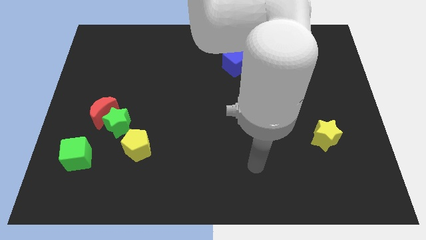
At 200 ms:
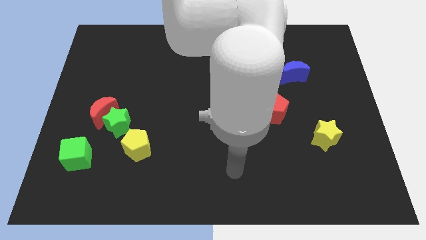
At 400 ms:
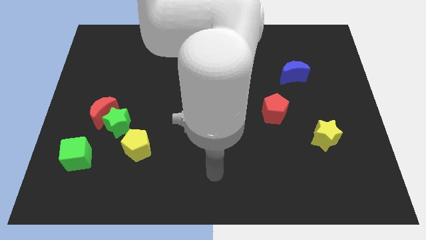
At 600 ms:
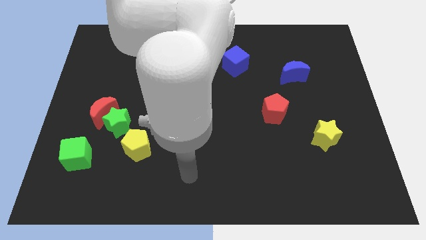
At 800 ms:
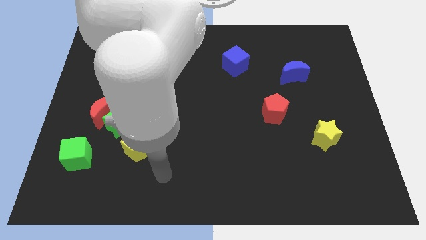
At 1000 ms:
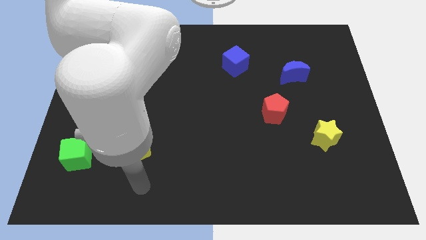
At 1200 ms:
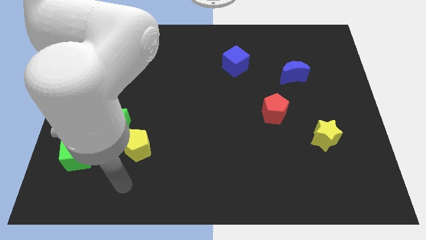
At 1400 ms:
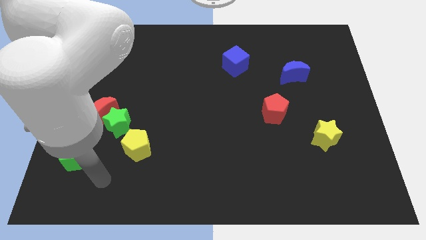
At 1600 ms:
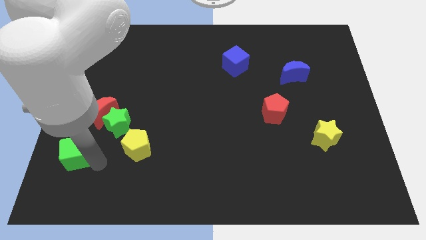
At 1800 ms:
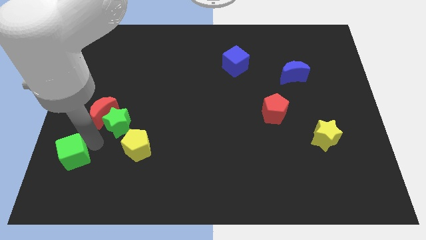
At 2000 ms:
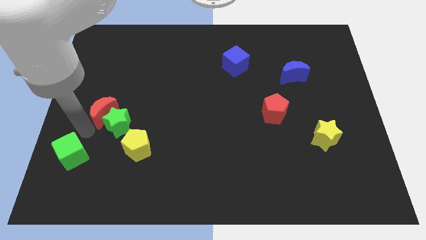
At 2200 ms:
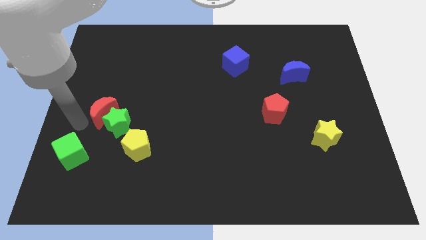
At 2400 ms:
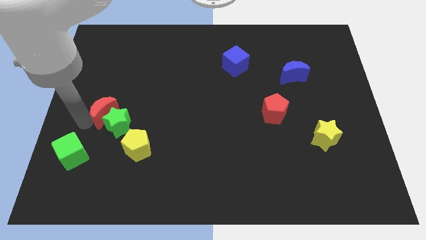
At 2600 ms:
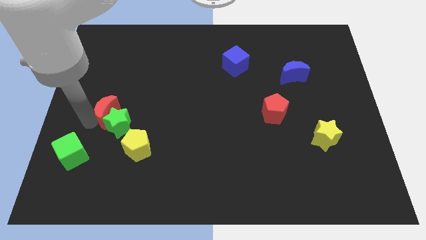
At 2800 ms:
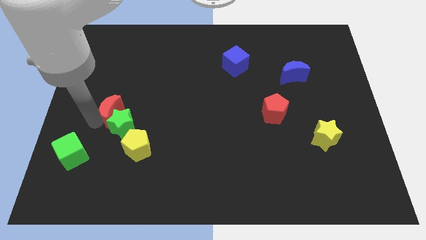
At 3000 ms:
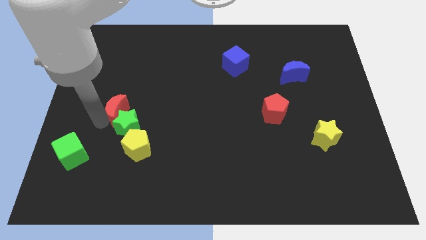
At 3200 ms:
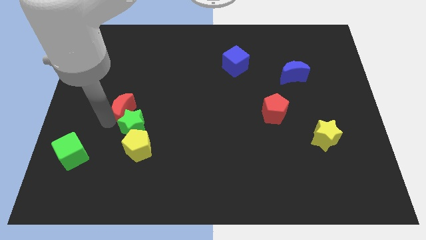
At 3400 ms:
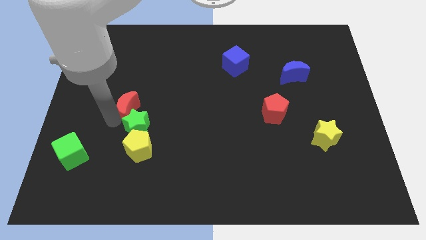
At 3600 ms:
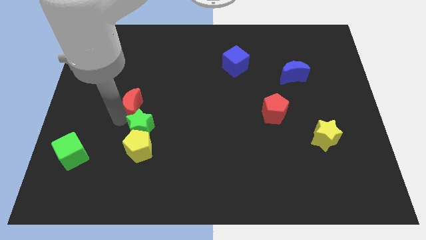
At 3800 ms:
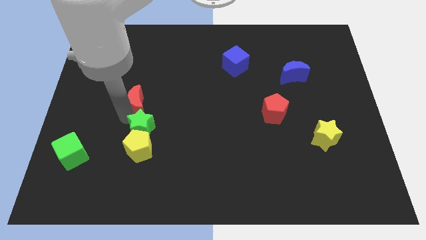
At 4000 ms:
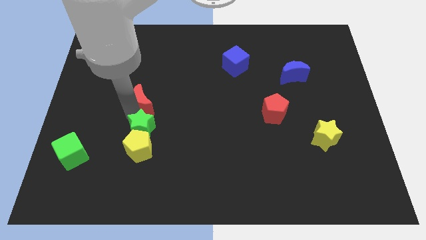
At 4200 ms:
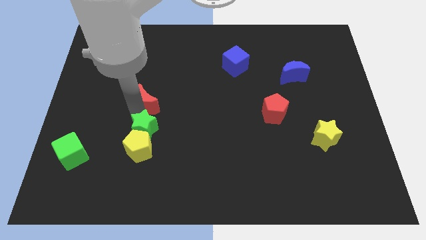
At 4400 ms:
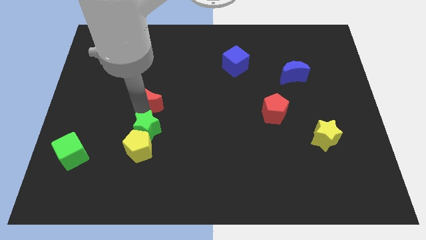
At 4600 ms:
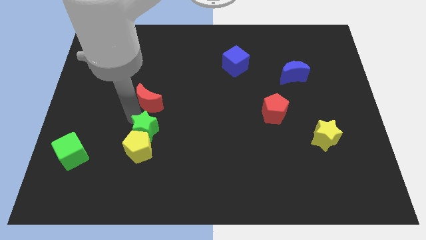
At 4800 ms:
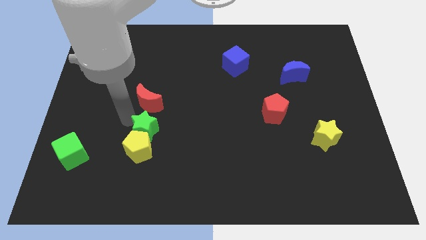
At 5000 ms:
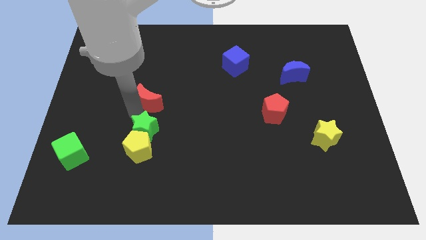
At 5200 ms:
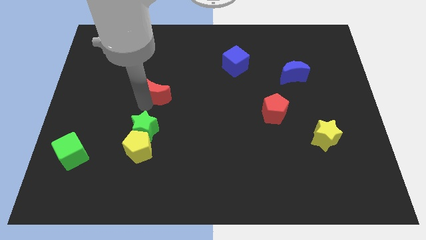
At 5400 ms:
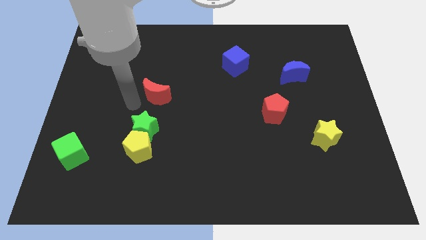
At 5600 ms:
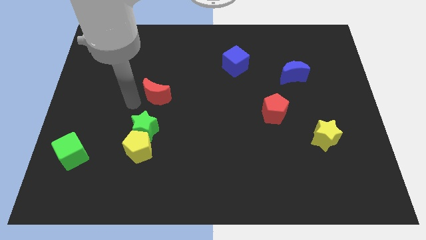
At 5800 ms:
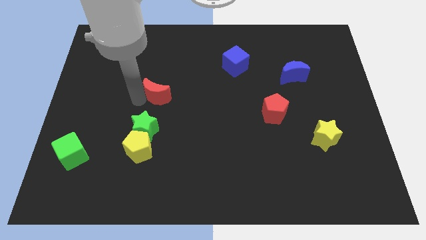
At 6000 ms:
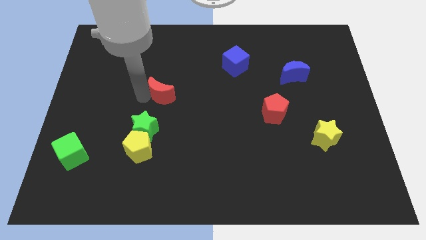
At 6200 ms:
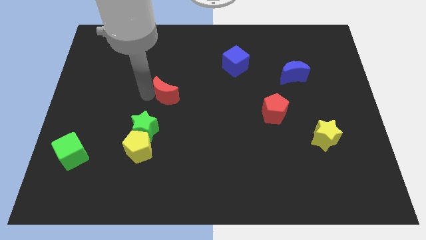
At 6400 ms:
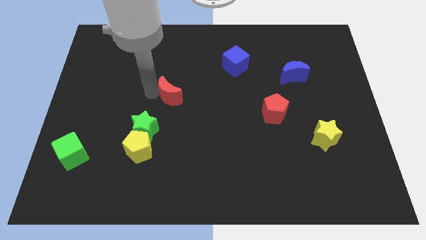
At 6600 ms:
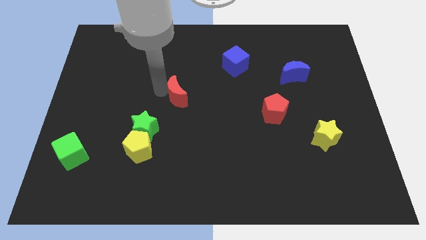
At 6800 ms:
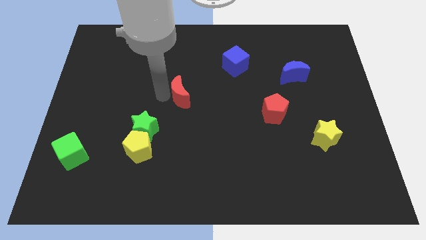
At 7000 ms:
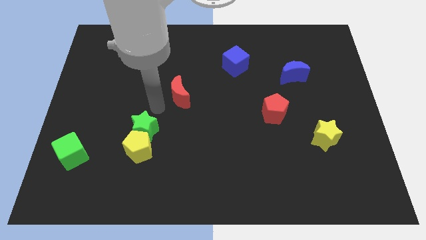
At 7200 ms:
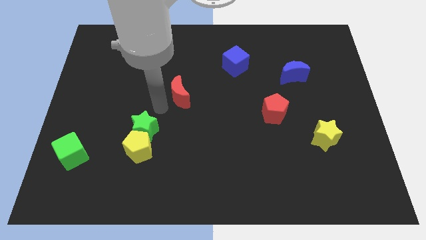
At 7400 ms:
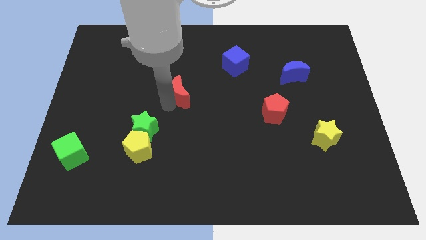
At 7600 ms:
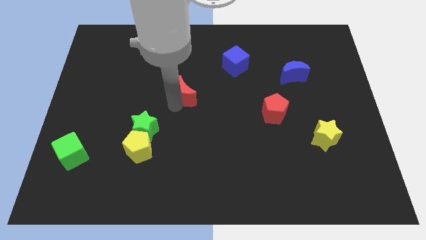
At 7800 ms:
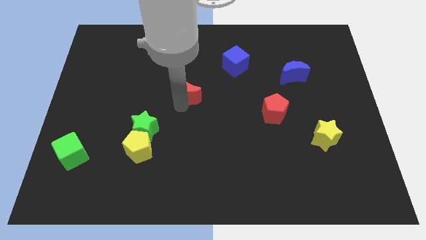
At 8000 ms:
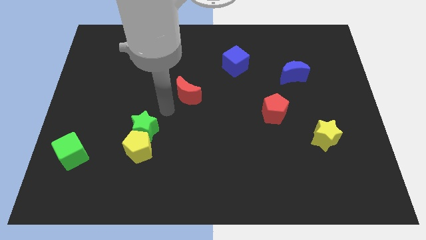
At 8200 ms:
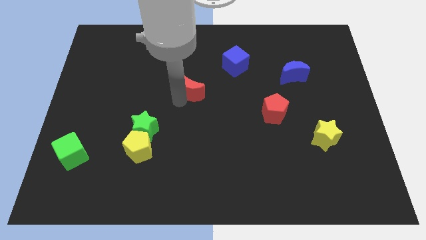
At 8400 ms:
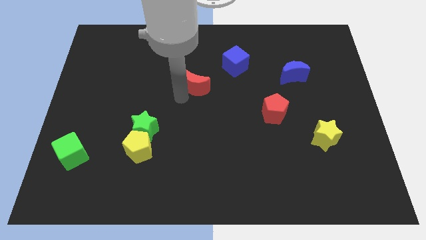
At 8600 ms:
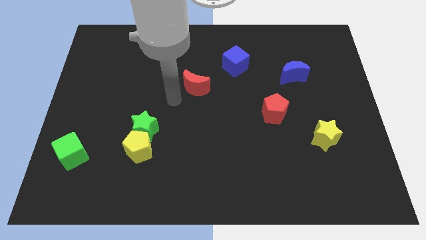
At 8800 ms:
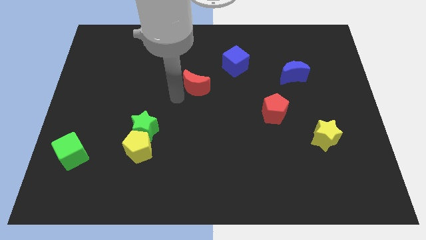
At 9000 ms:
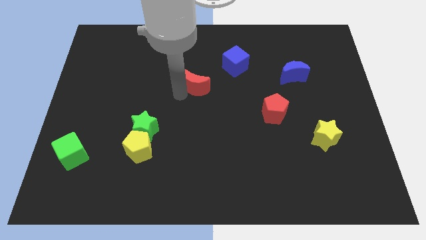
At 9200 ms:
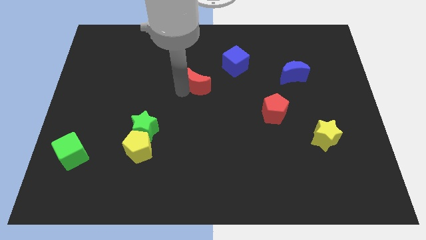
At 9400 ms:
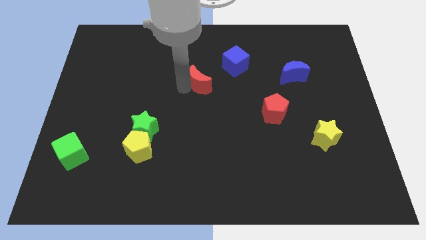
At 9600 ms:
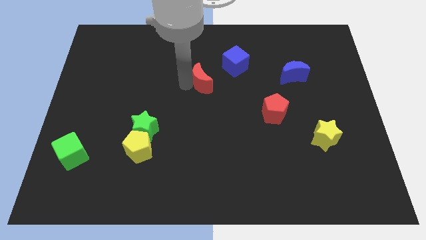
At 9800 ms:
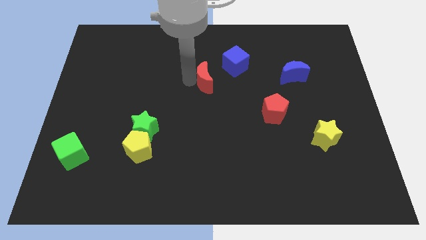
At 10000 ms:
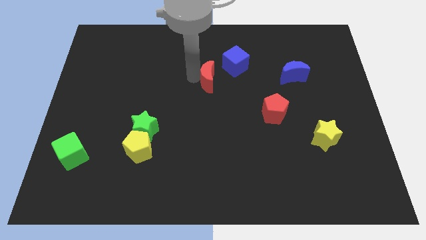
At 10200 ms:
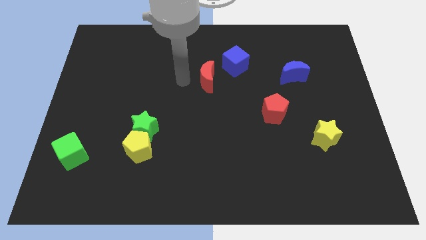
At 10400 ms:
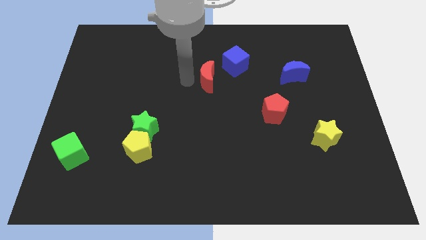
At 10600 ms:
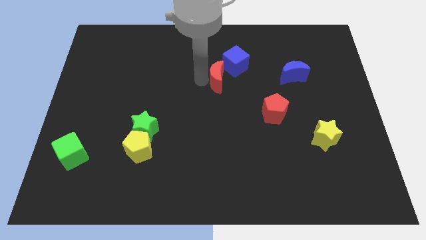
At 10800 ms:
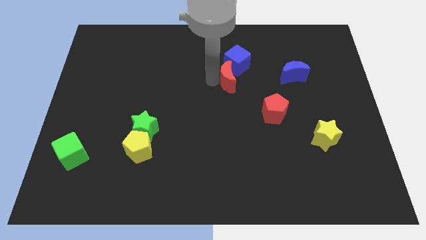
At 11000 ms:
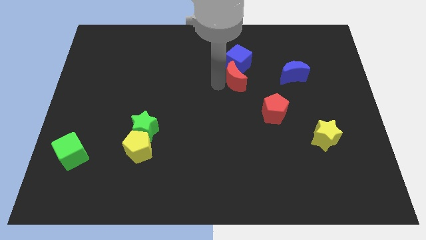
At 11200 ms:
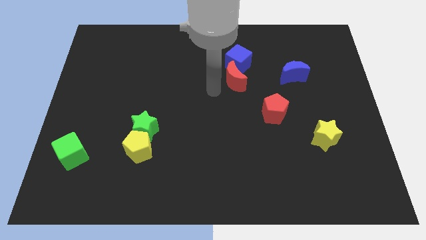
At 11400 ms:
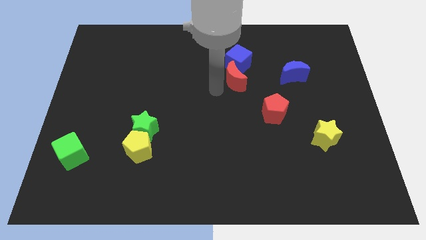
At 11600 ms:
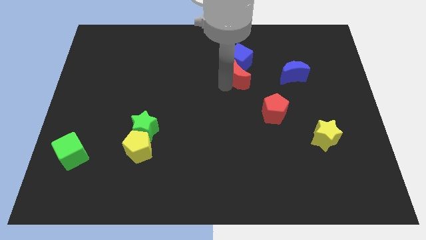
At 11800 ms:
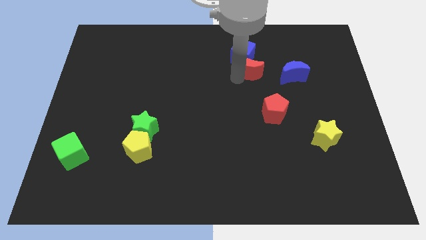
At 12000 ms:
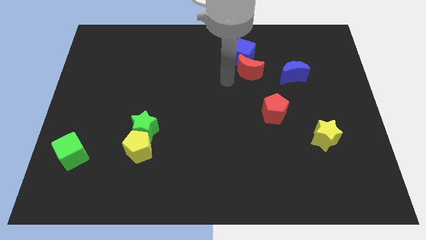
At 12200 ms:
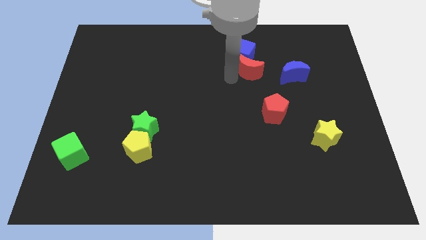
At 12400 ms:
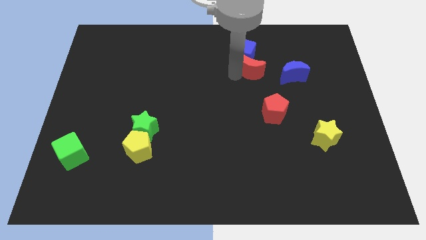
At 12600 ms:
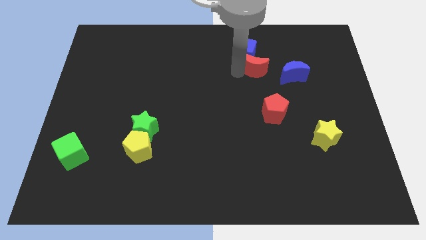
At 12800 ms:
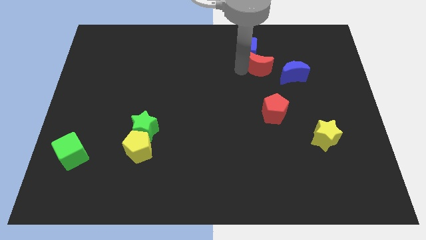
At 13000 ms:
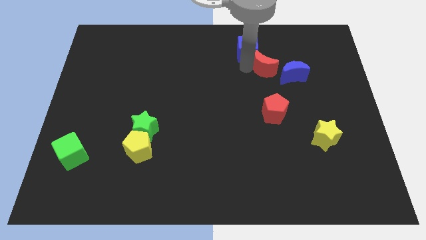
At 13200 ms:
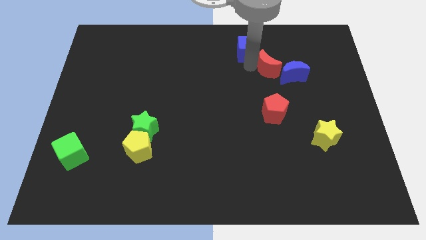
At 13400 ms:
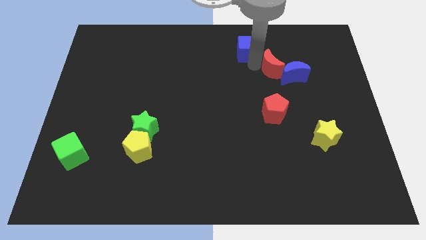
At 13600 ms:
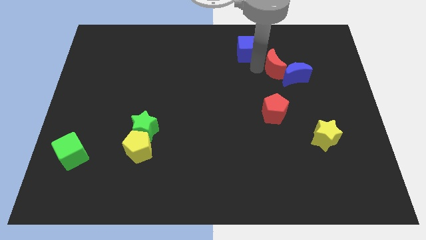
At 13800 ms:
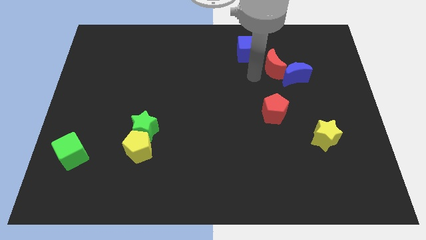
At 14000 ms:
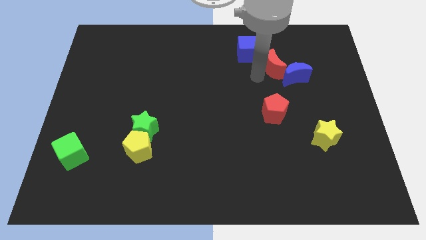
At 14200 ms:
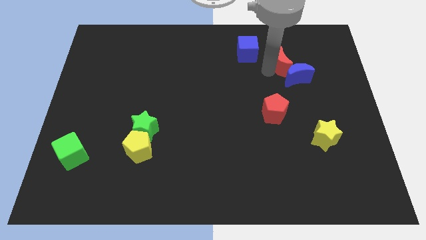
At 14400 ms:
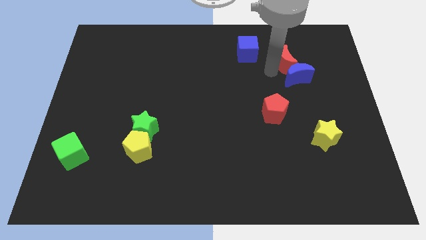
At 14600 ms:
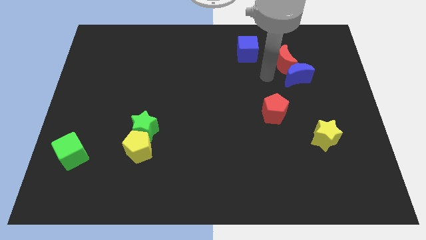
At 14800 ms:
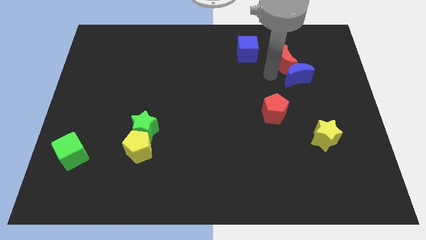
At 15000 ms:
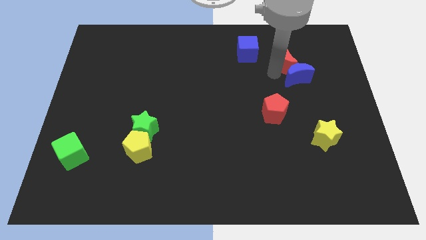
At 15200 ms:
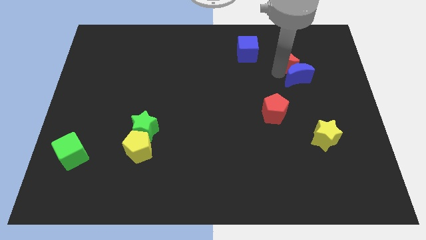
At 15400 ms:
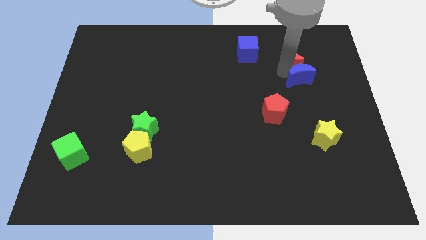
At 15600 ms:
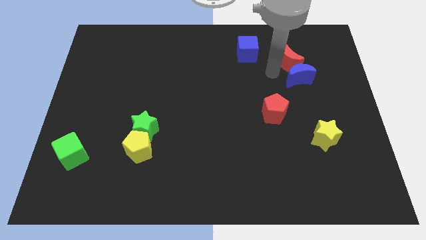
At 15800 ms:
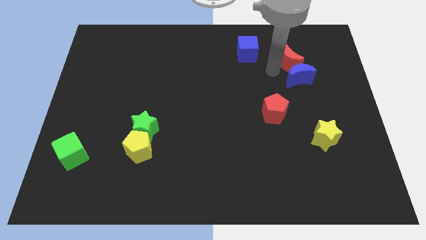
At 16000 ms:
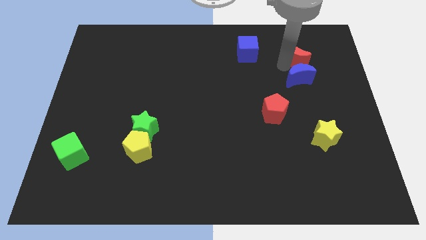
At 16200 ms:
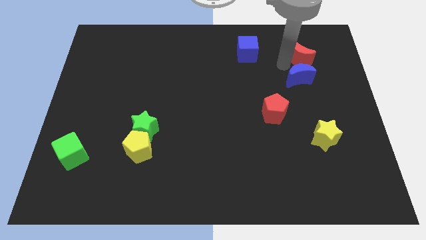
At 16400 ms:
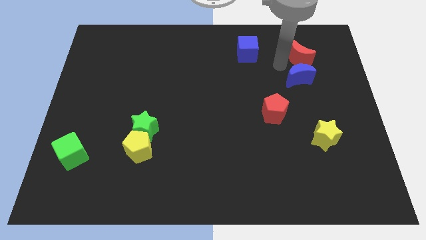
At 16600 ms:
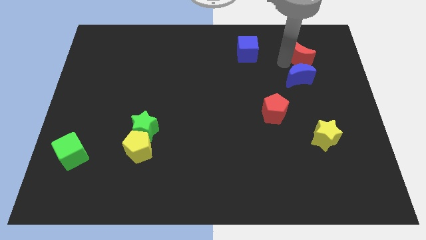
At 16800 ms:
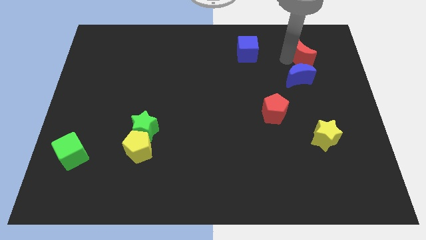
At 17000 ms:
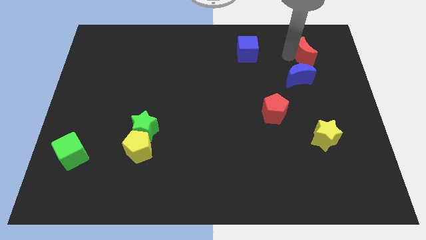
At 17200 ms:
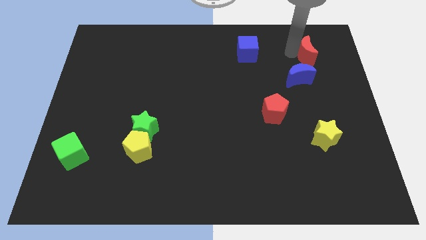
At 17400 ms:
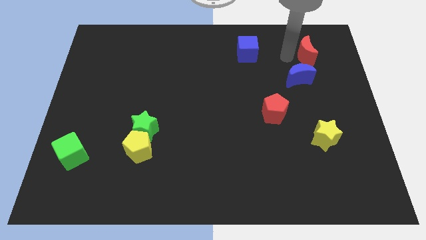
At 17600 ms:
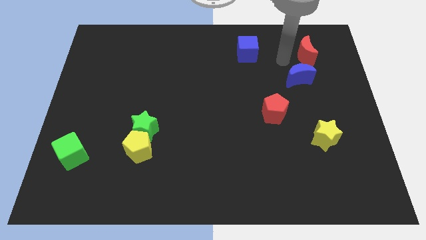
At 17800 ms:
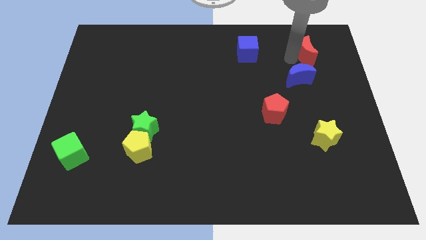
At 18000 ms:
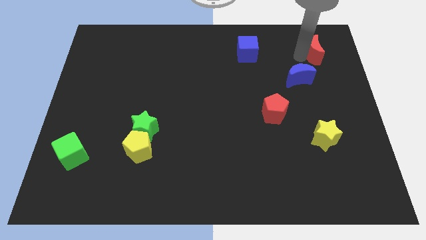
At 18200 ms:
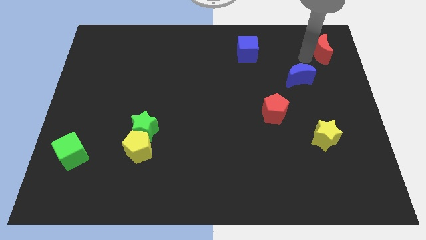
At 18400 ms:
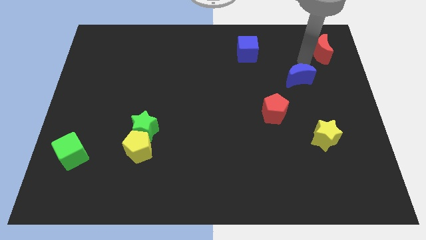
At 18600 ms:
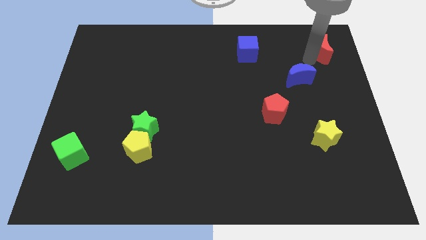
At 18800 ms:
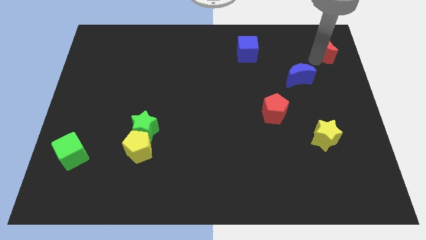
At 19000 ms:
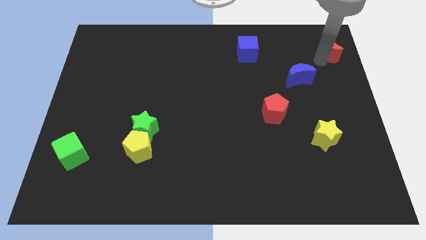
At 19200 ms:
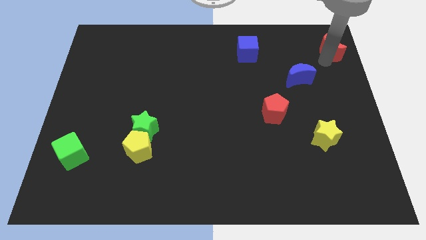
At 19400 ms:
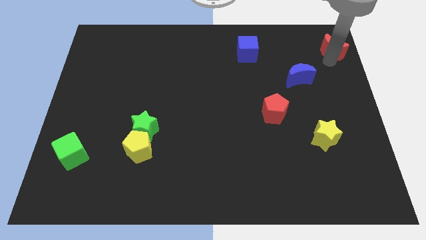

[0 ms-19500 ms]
slide the red moon to the top right corner
